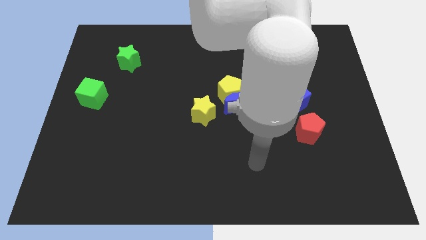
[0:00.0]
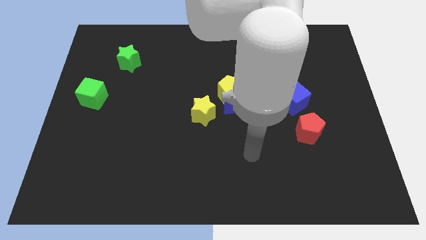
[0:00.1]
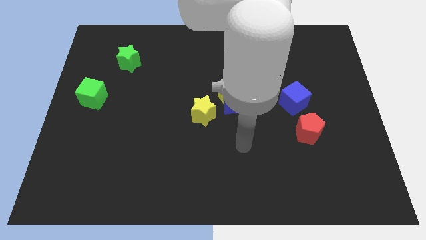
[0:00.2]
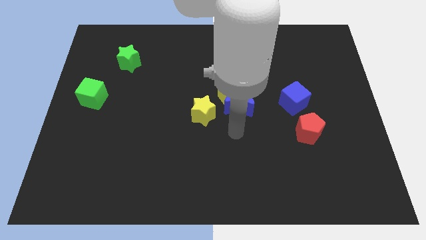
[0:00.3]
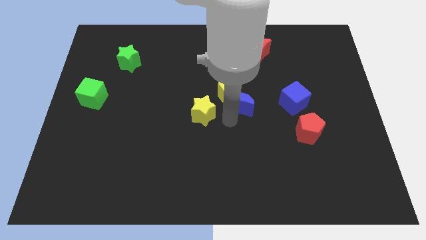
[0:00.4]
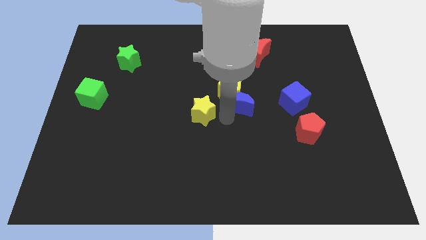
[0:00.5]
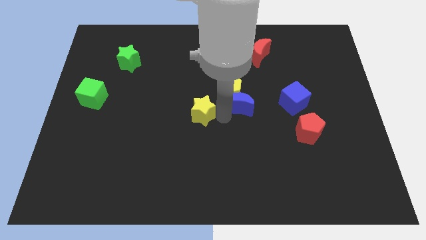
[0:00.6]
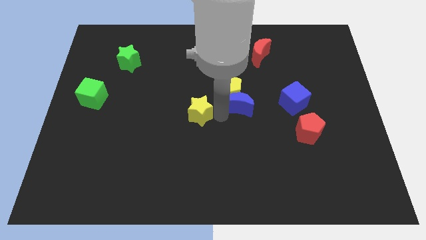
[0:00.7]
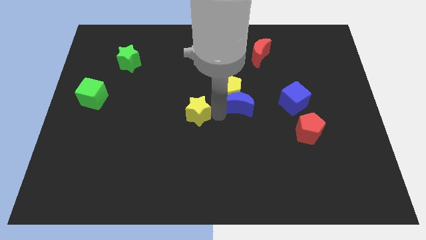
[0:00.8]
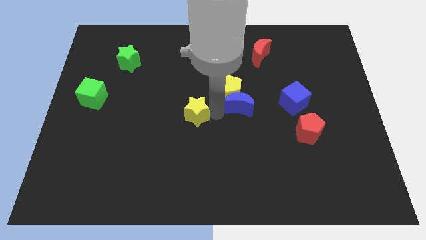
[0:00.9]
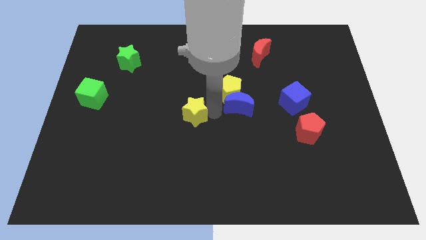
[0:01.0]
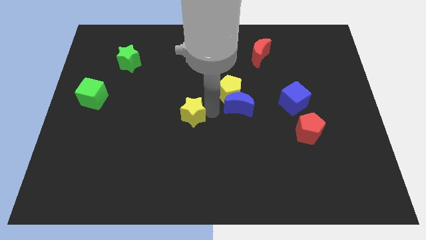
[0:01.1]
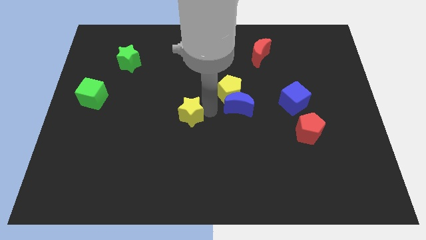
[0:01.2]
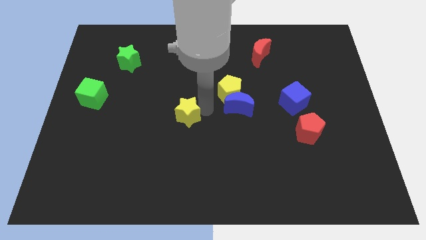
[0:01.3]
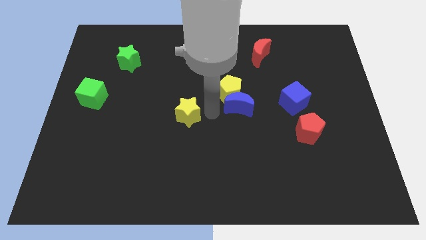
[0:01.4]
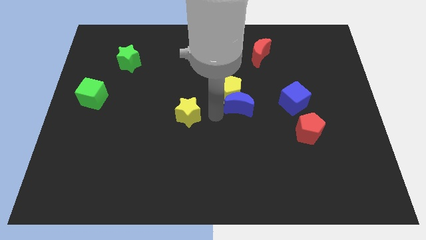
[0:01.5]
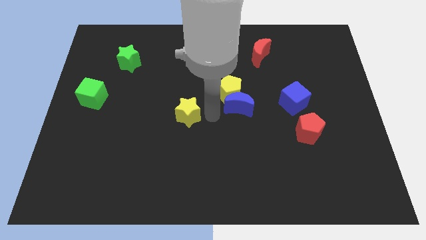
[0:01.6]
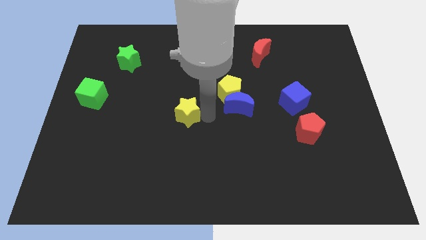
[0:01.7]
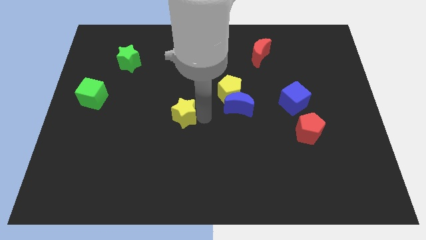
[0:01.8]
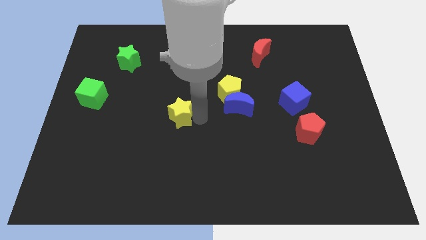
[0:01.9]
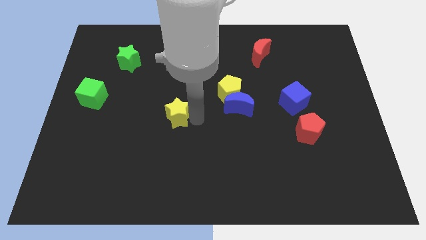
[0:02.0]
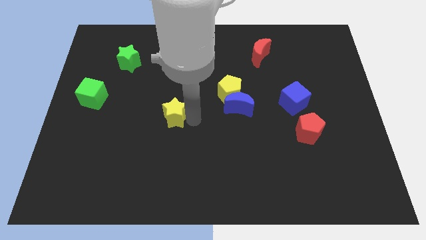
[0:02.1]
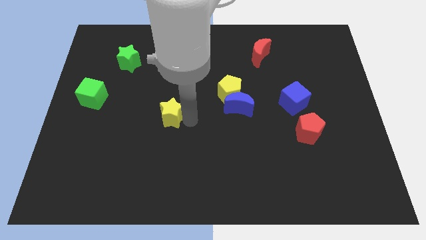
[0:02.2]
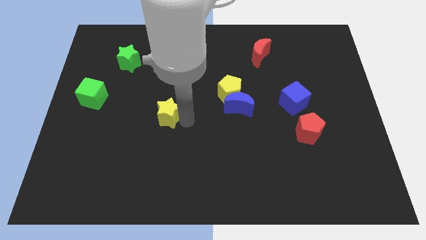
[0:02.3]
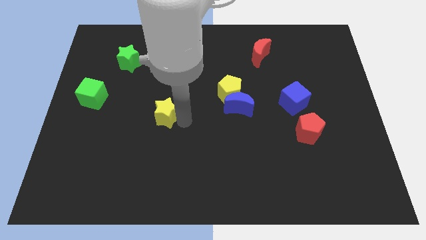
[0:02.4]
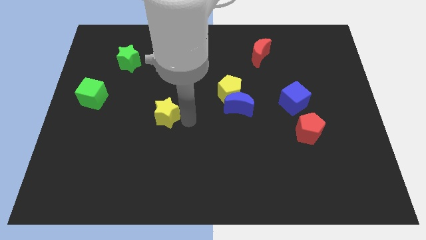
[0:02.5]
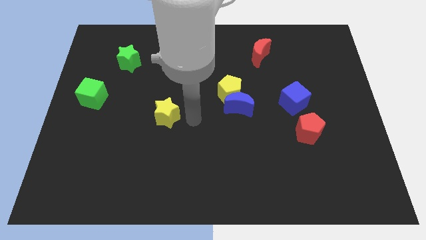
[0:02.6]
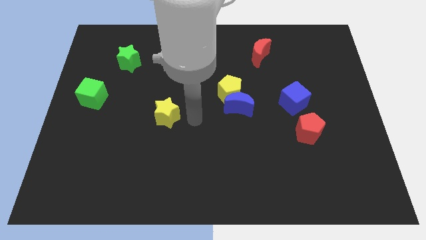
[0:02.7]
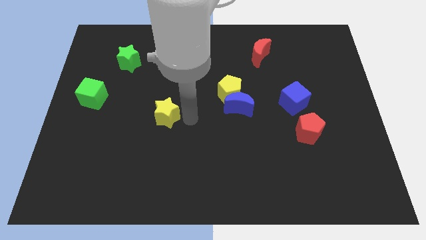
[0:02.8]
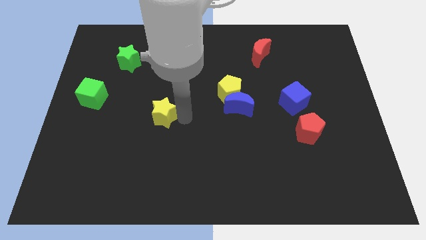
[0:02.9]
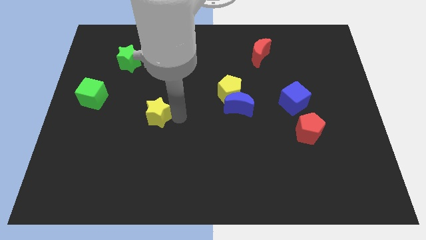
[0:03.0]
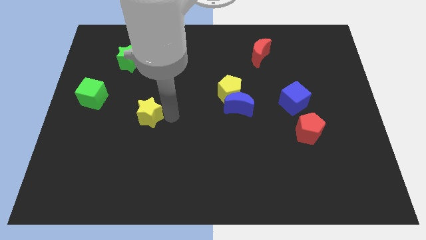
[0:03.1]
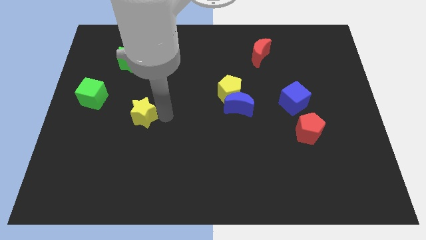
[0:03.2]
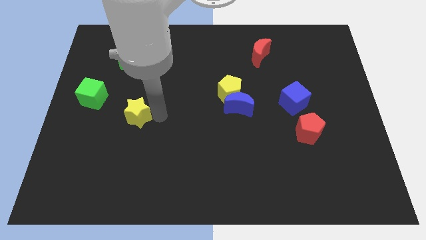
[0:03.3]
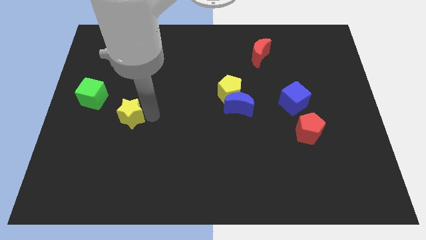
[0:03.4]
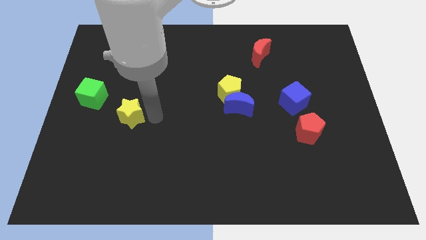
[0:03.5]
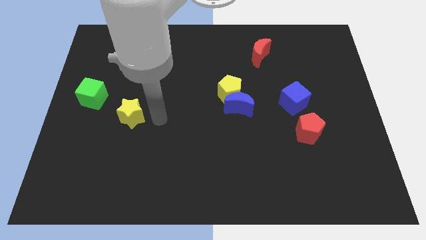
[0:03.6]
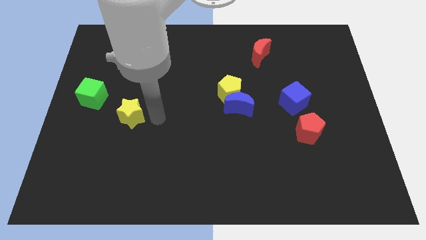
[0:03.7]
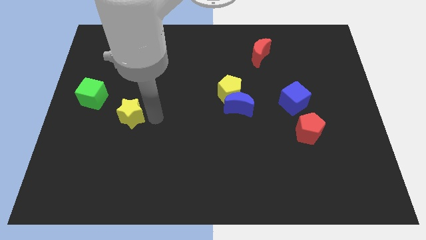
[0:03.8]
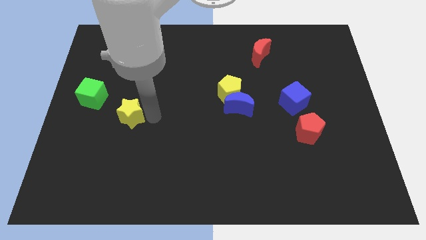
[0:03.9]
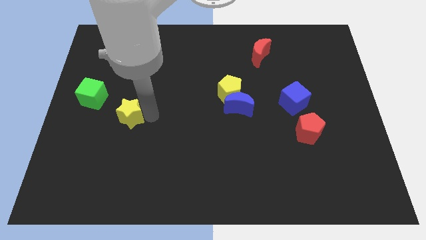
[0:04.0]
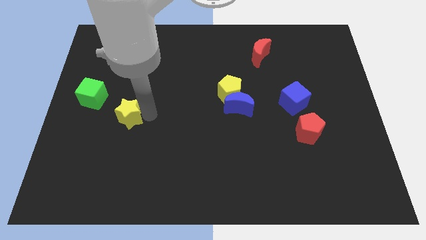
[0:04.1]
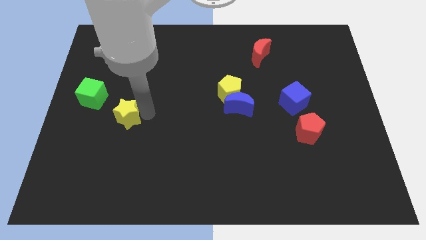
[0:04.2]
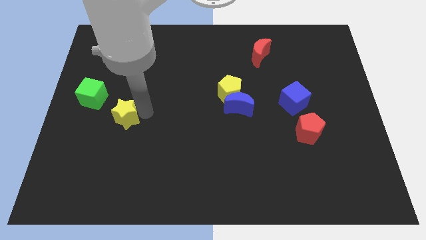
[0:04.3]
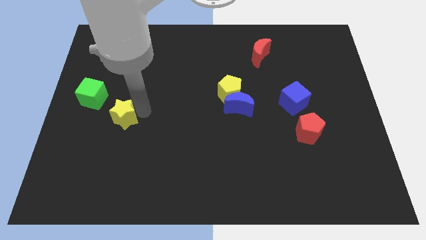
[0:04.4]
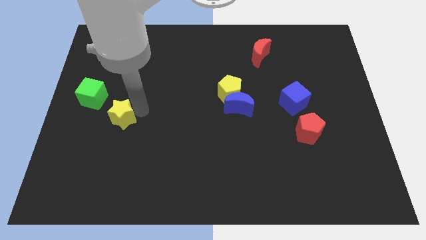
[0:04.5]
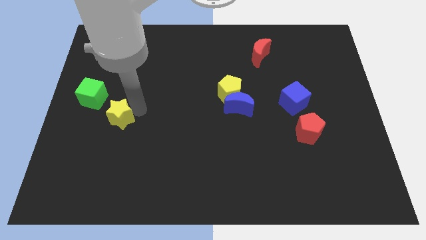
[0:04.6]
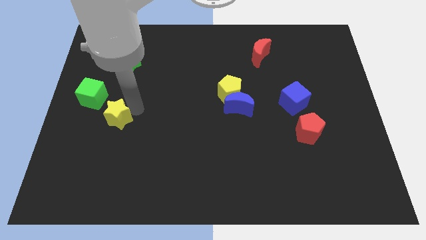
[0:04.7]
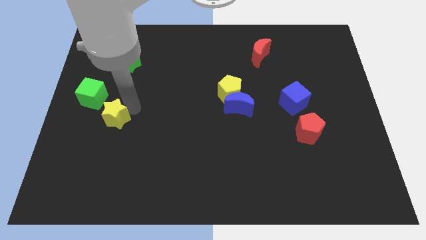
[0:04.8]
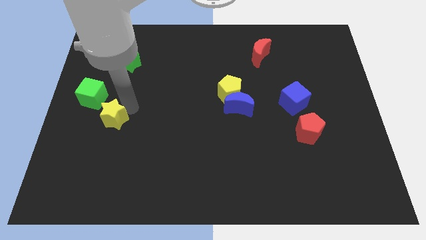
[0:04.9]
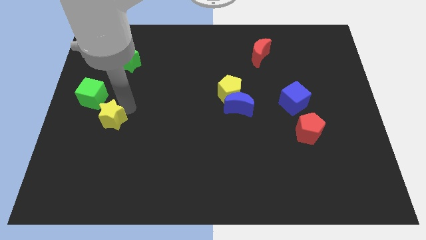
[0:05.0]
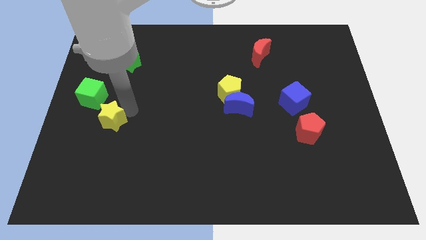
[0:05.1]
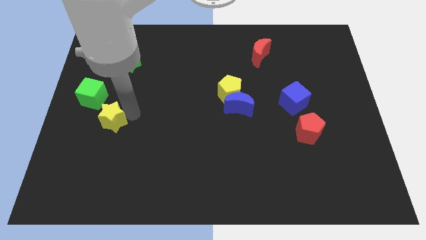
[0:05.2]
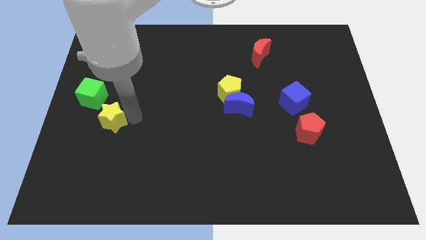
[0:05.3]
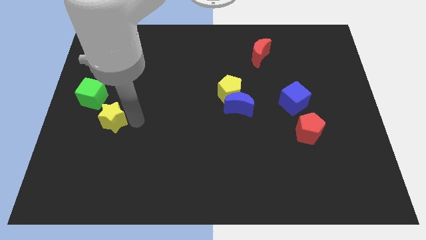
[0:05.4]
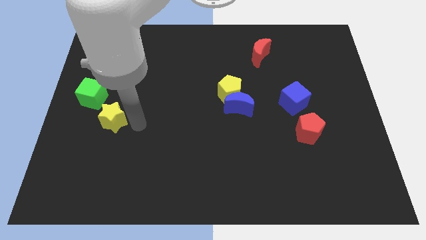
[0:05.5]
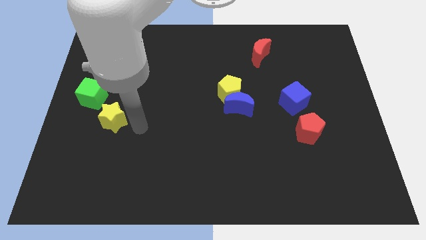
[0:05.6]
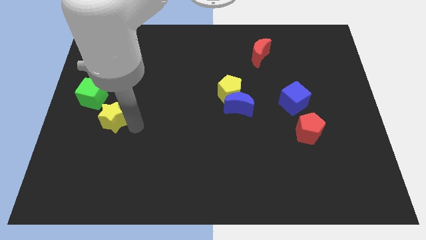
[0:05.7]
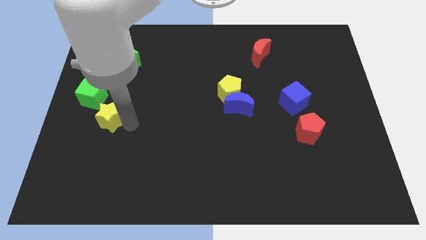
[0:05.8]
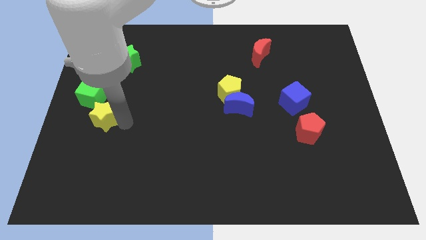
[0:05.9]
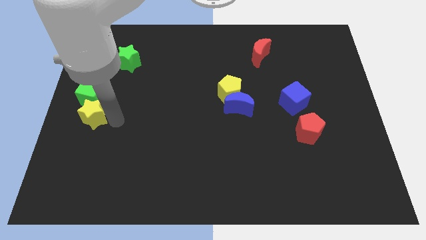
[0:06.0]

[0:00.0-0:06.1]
slide the yellow star to the left side of the board
